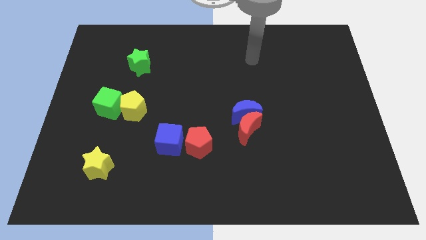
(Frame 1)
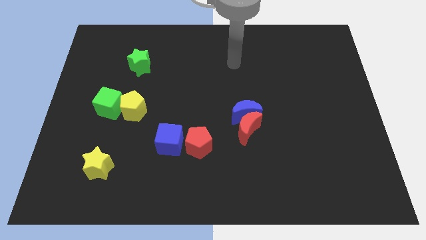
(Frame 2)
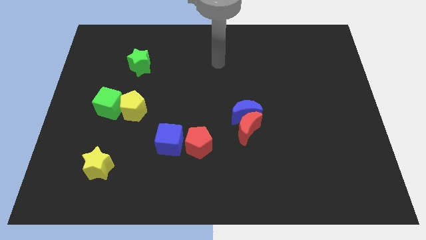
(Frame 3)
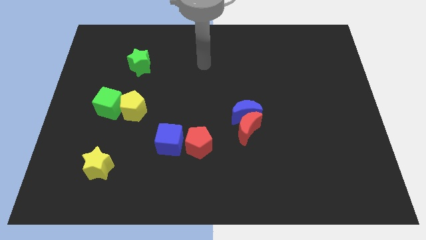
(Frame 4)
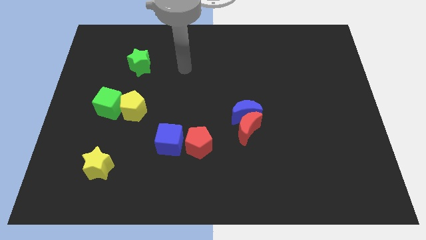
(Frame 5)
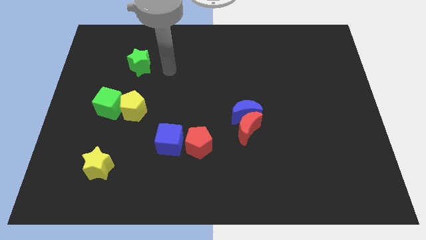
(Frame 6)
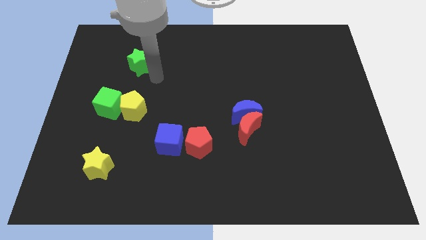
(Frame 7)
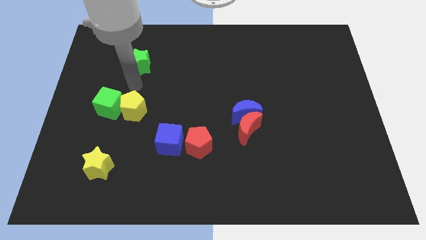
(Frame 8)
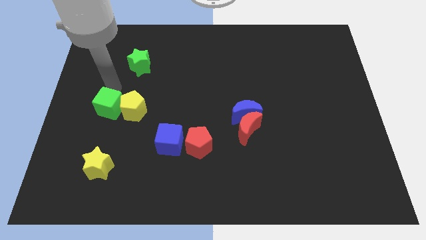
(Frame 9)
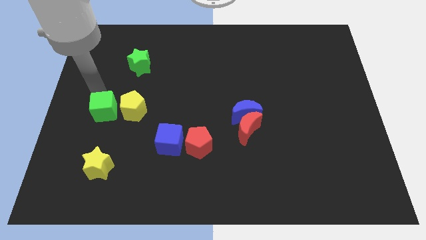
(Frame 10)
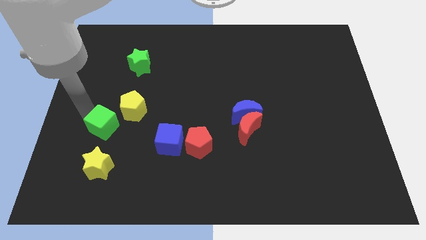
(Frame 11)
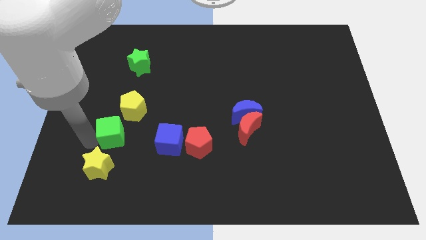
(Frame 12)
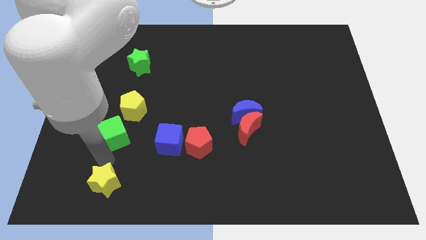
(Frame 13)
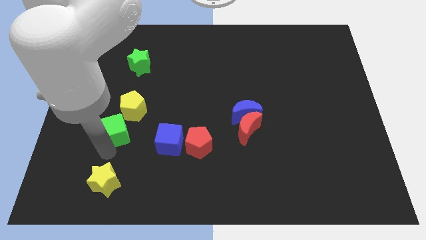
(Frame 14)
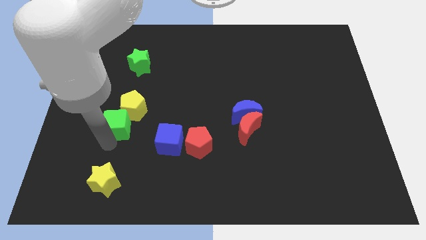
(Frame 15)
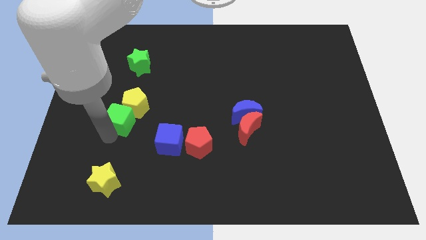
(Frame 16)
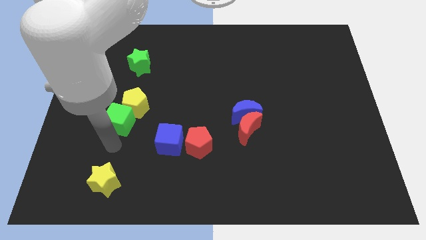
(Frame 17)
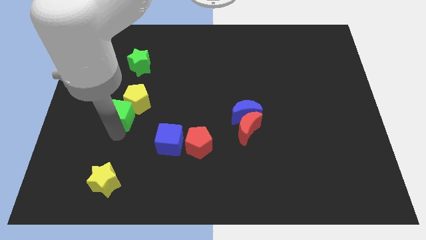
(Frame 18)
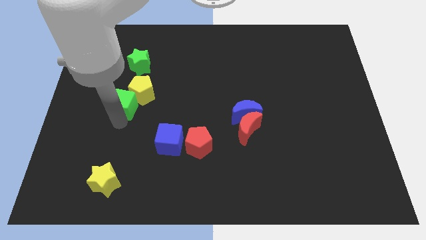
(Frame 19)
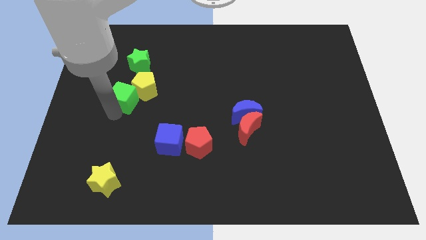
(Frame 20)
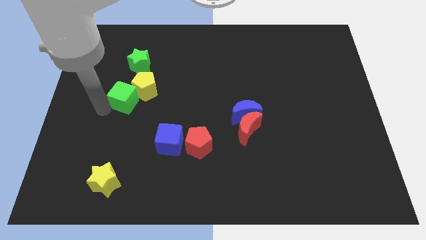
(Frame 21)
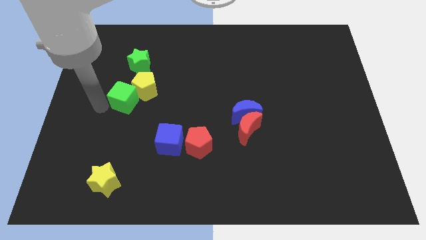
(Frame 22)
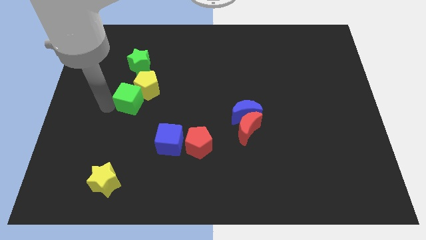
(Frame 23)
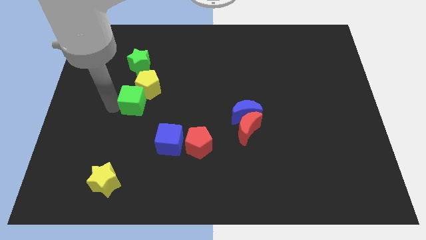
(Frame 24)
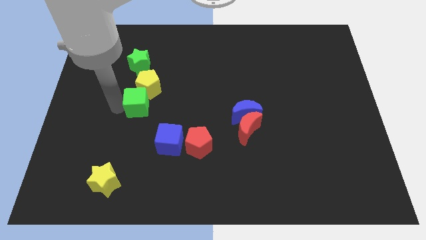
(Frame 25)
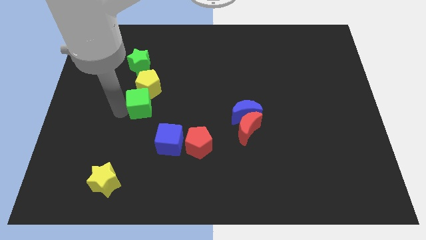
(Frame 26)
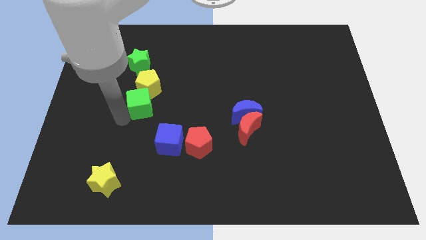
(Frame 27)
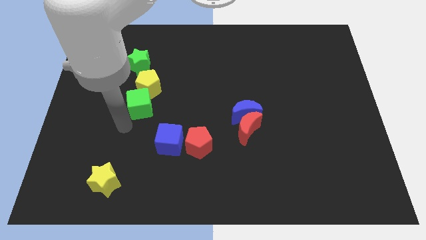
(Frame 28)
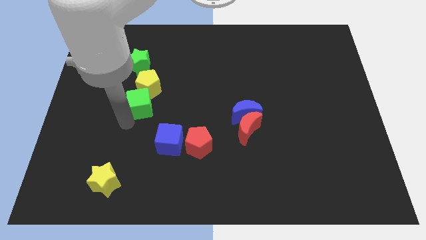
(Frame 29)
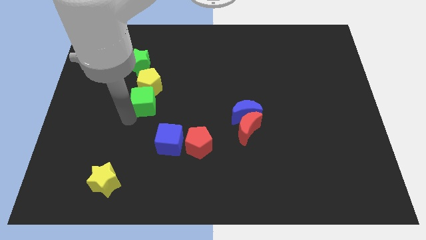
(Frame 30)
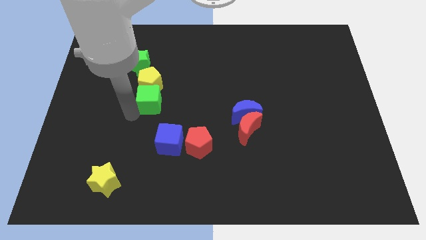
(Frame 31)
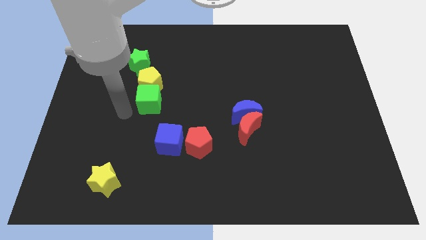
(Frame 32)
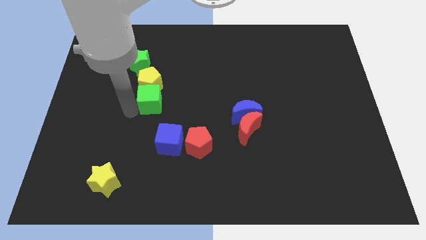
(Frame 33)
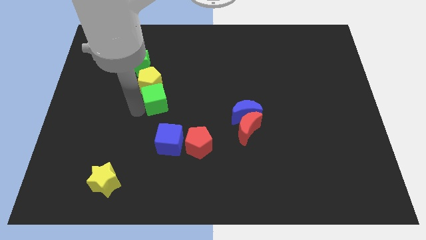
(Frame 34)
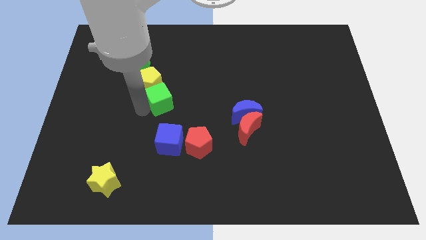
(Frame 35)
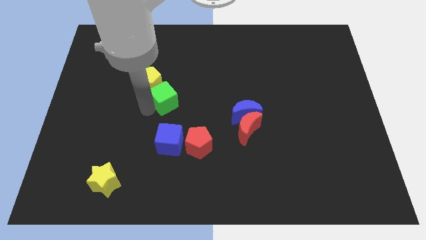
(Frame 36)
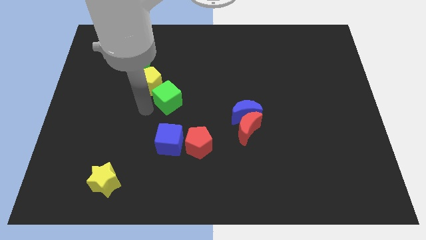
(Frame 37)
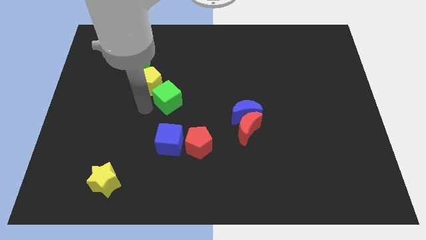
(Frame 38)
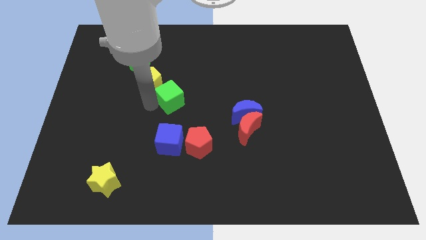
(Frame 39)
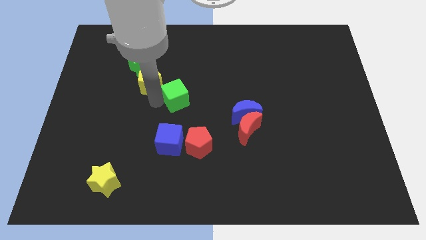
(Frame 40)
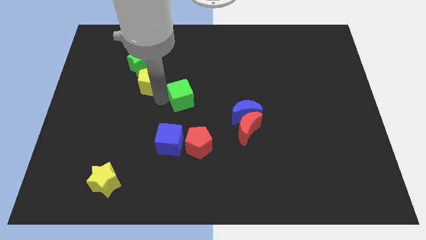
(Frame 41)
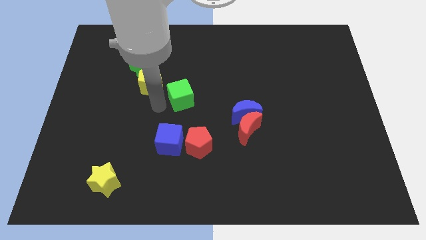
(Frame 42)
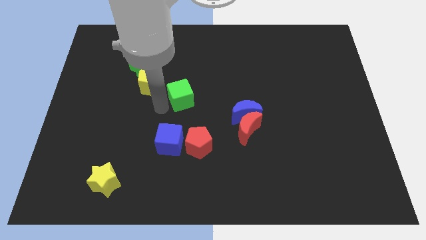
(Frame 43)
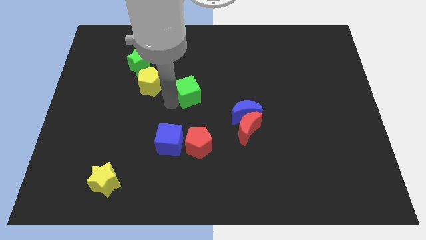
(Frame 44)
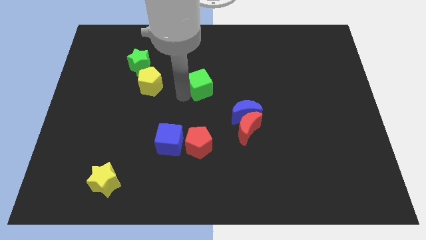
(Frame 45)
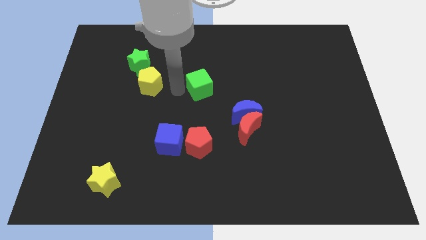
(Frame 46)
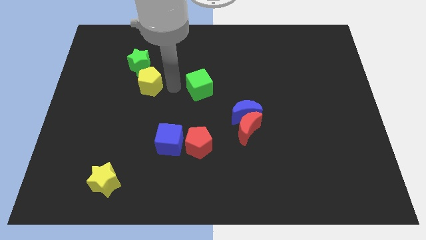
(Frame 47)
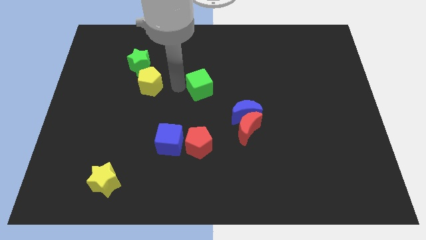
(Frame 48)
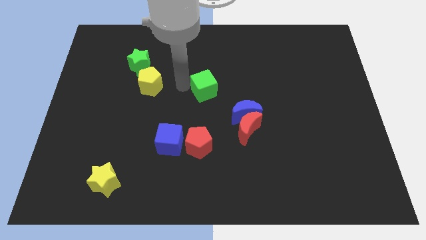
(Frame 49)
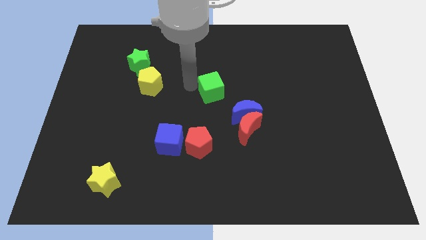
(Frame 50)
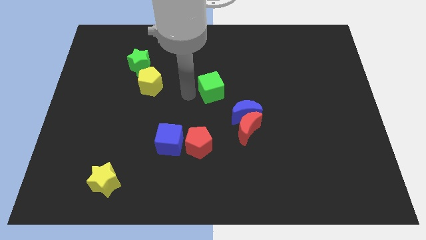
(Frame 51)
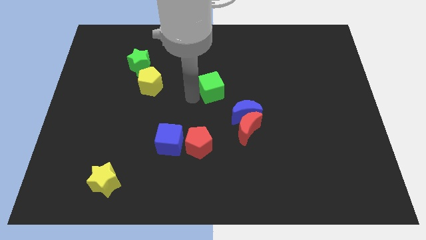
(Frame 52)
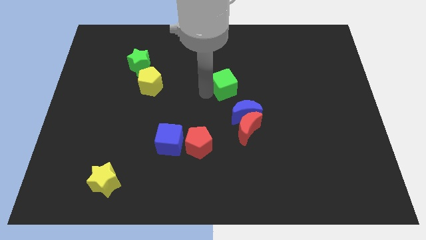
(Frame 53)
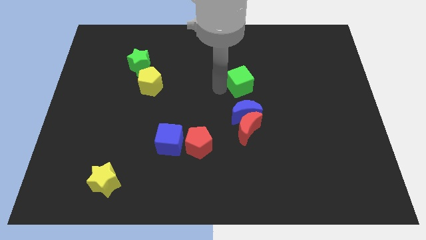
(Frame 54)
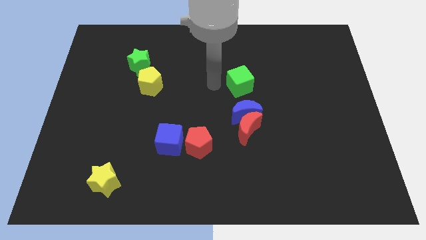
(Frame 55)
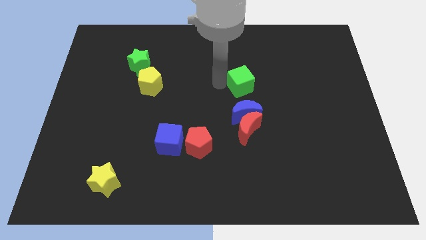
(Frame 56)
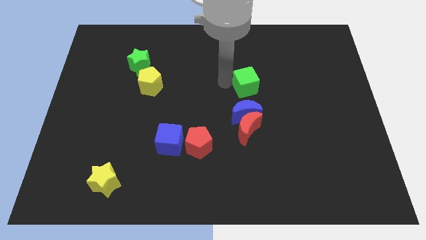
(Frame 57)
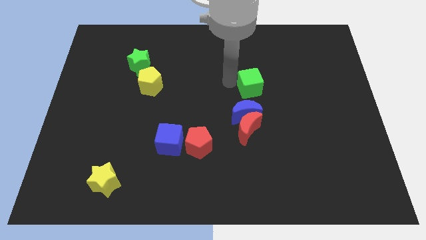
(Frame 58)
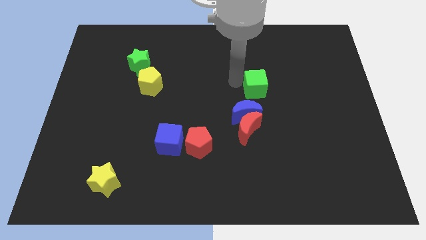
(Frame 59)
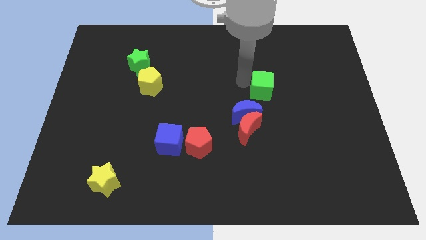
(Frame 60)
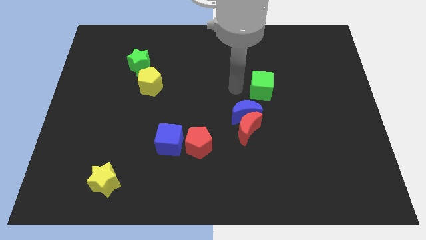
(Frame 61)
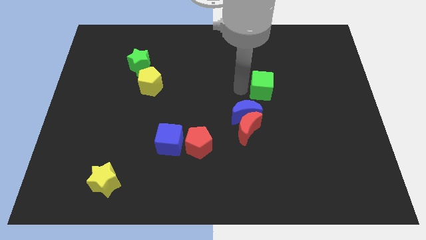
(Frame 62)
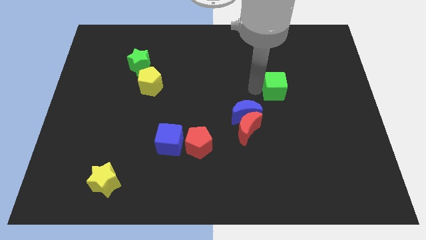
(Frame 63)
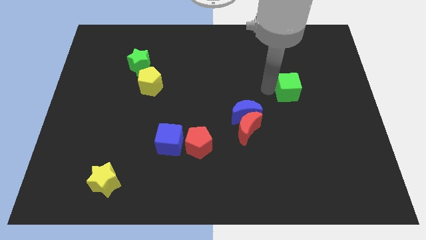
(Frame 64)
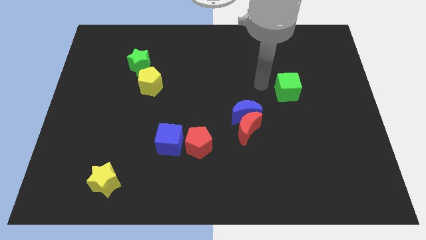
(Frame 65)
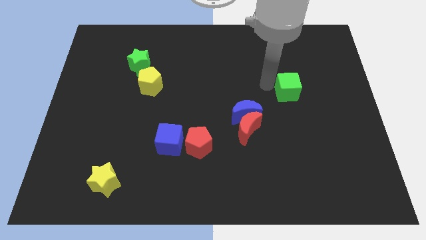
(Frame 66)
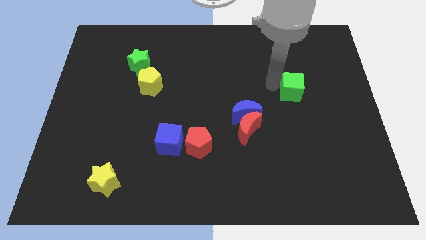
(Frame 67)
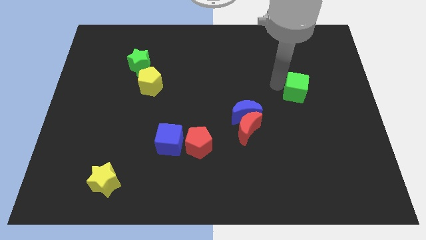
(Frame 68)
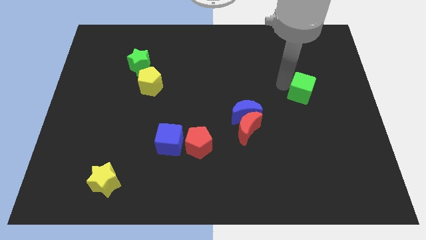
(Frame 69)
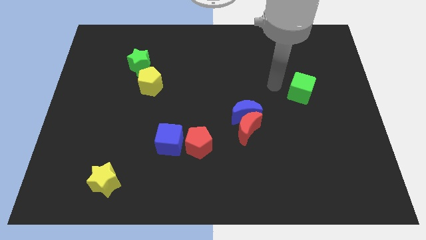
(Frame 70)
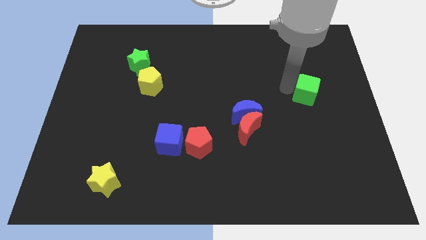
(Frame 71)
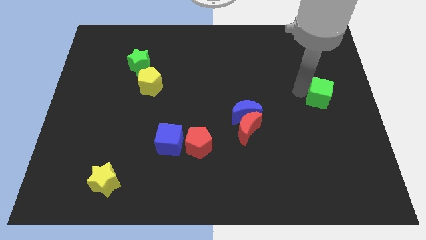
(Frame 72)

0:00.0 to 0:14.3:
slide the green cube to the right side of the board
